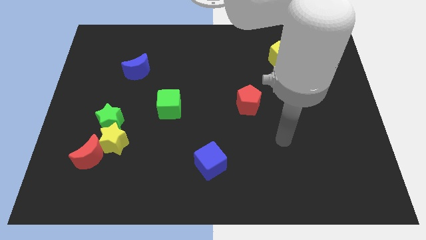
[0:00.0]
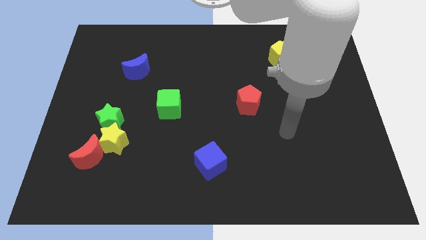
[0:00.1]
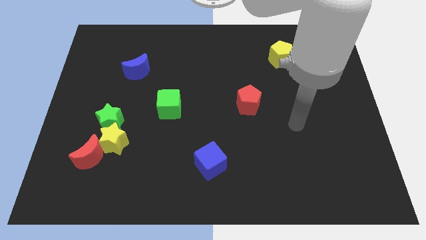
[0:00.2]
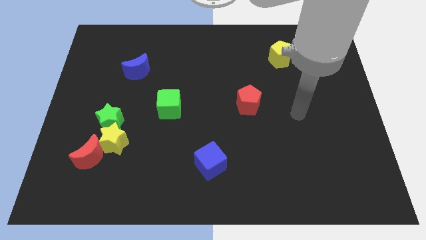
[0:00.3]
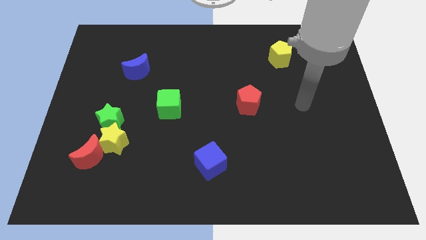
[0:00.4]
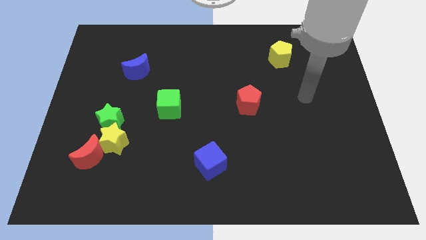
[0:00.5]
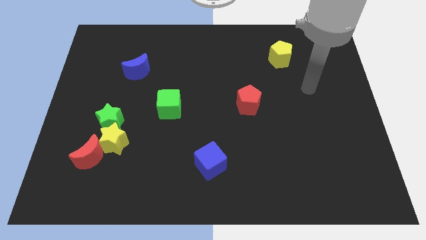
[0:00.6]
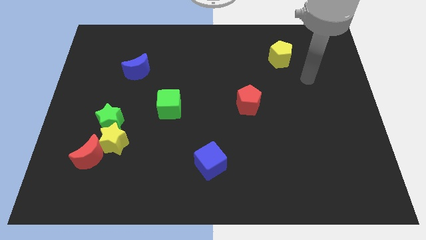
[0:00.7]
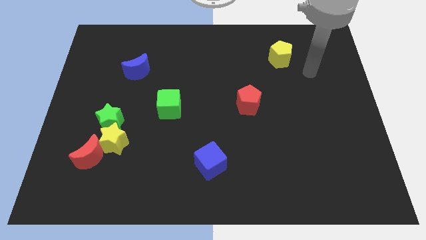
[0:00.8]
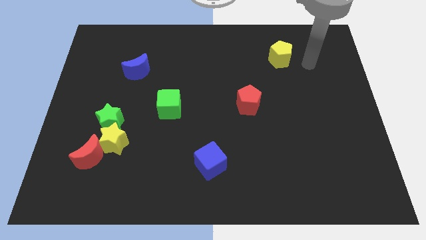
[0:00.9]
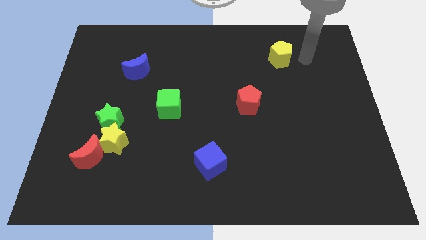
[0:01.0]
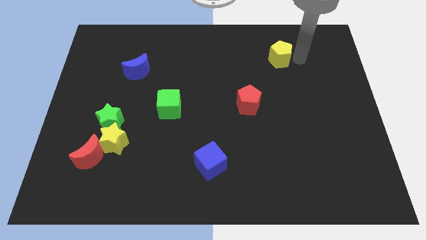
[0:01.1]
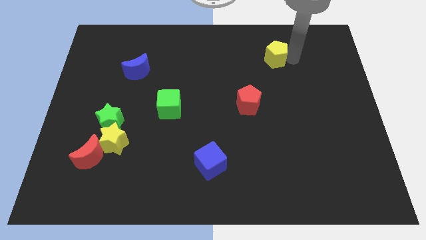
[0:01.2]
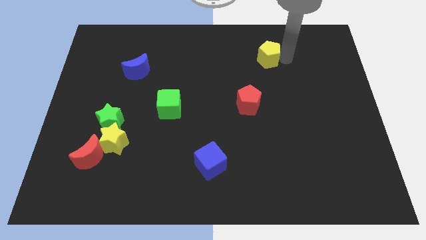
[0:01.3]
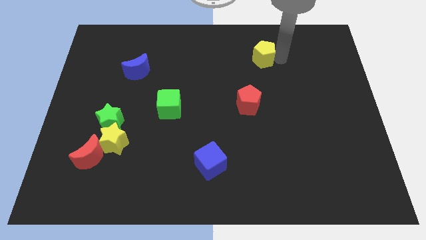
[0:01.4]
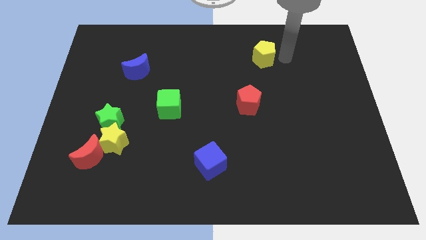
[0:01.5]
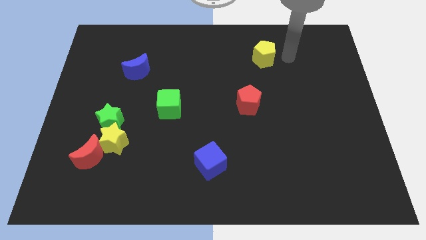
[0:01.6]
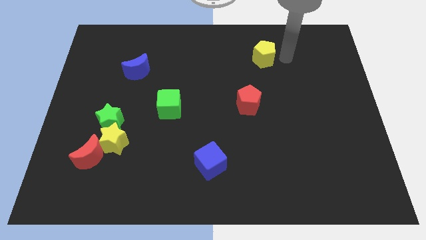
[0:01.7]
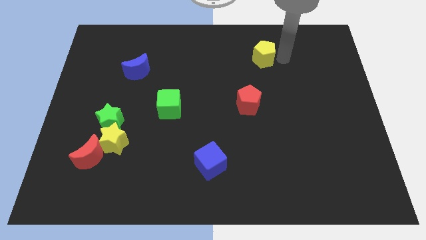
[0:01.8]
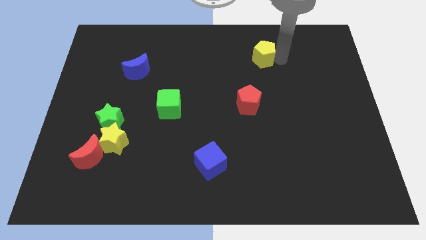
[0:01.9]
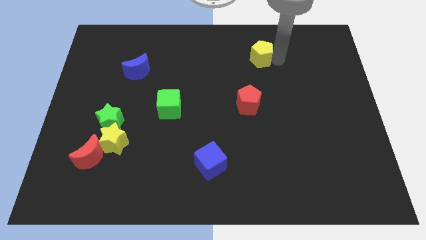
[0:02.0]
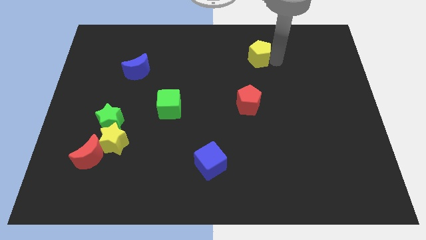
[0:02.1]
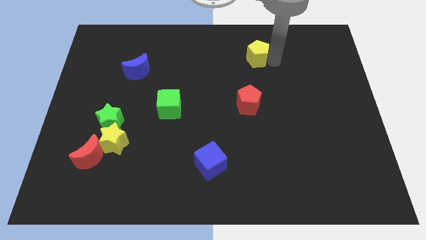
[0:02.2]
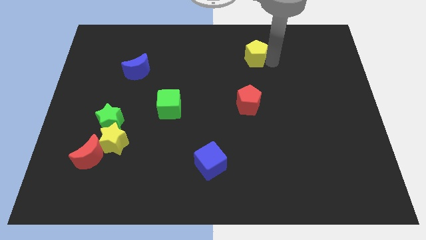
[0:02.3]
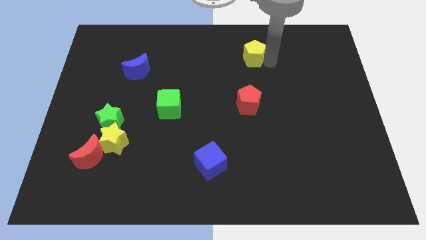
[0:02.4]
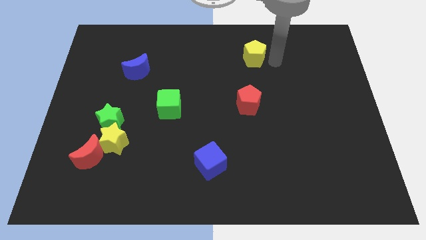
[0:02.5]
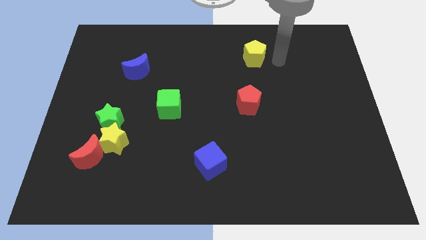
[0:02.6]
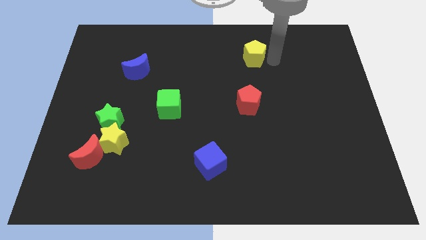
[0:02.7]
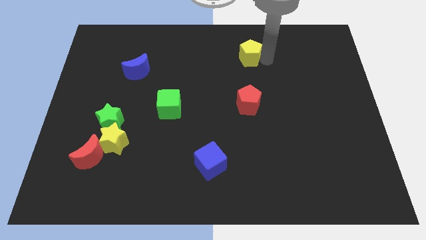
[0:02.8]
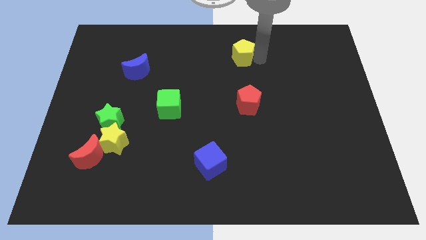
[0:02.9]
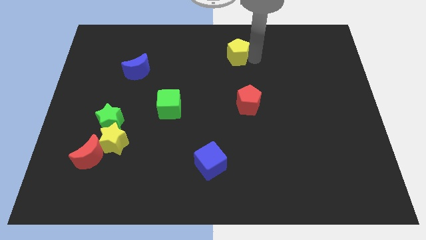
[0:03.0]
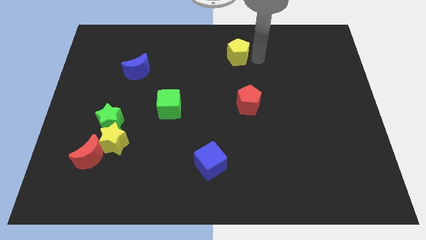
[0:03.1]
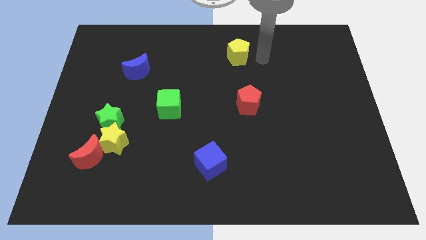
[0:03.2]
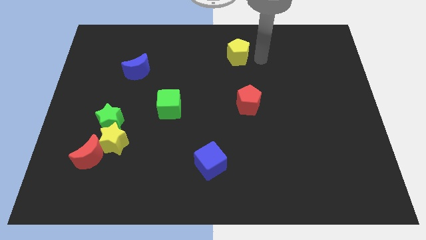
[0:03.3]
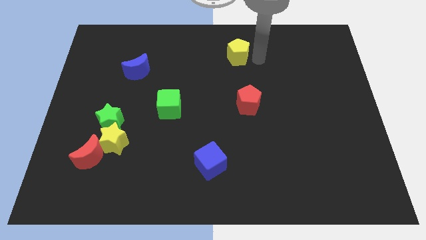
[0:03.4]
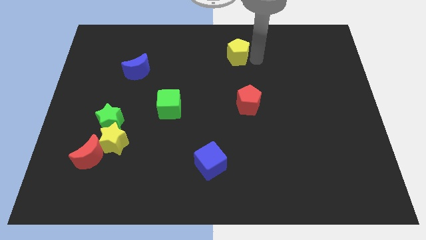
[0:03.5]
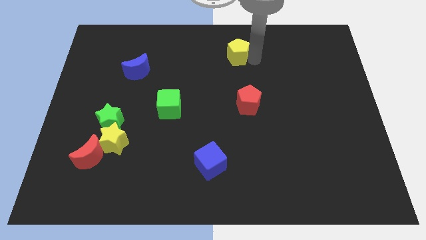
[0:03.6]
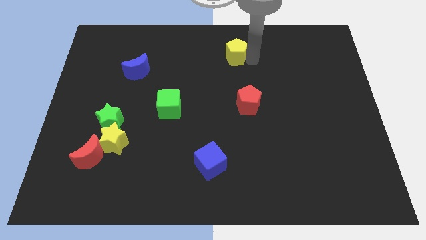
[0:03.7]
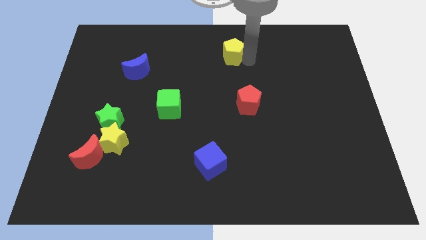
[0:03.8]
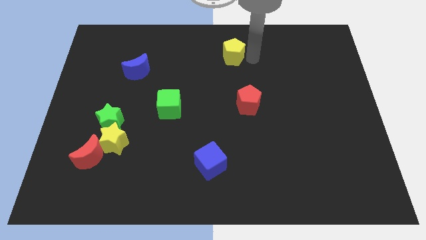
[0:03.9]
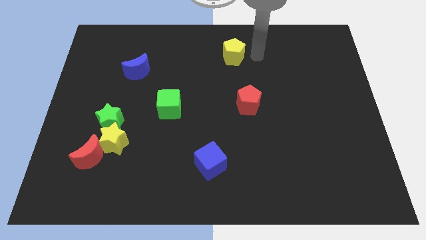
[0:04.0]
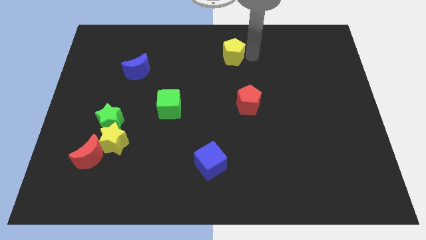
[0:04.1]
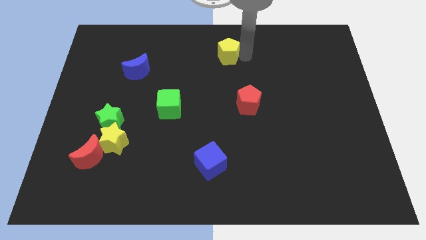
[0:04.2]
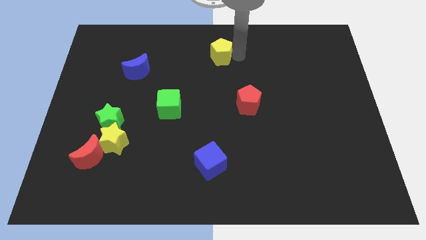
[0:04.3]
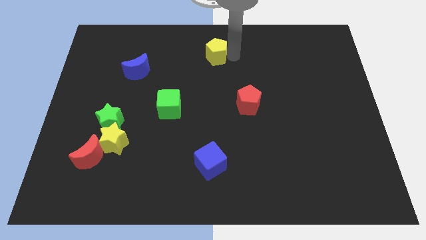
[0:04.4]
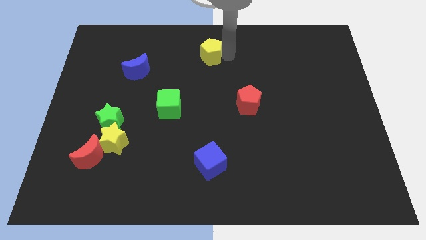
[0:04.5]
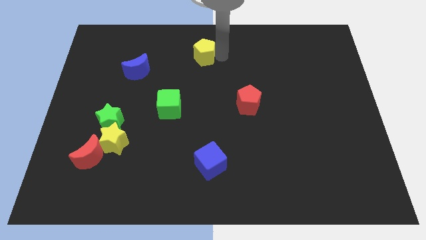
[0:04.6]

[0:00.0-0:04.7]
push the yellow pentagon left

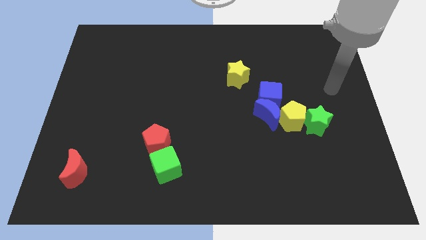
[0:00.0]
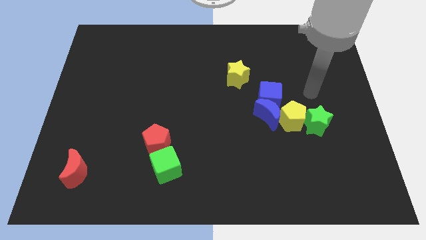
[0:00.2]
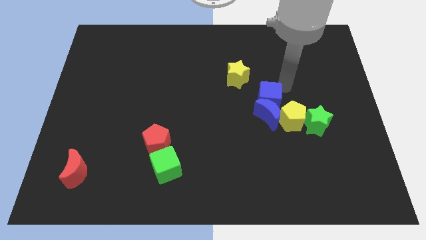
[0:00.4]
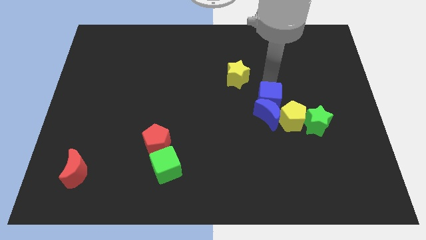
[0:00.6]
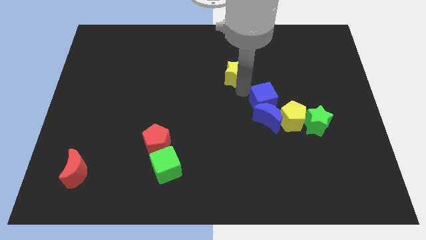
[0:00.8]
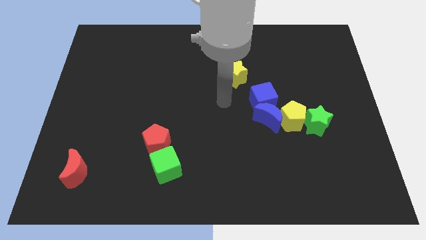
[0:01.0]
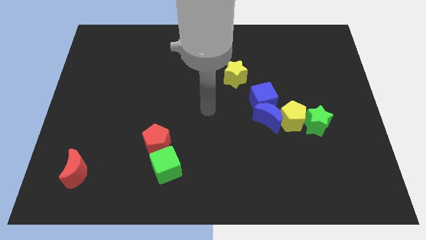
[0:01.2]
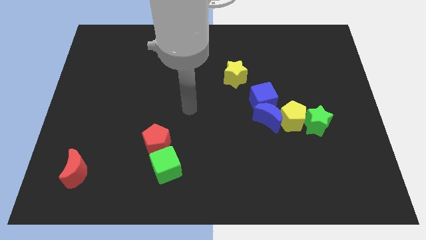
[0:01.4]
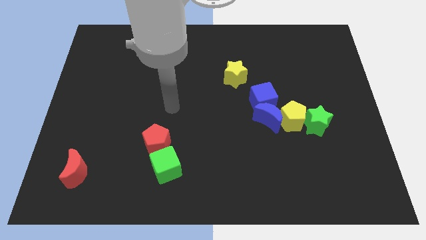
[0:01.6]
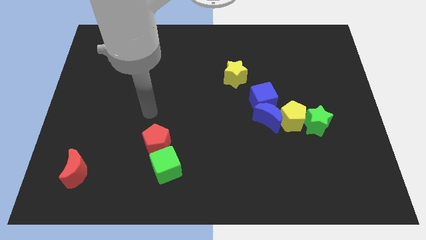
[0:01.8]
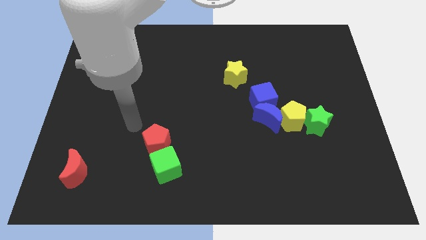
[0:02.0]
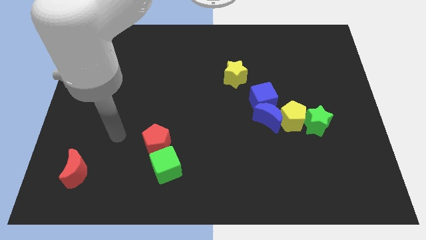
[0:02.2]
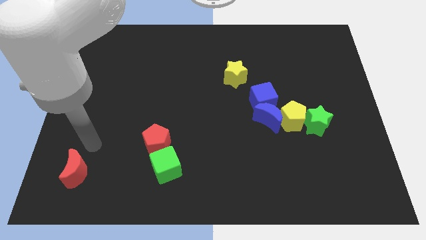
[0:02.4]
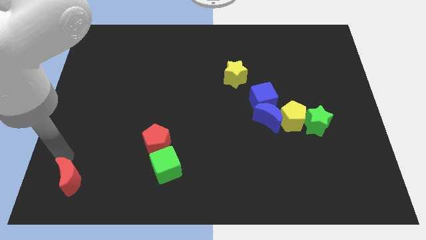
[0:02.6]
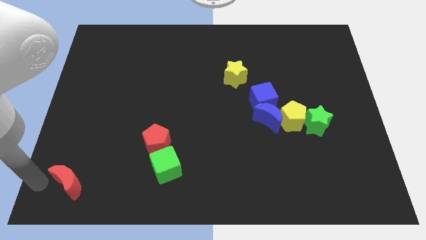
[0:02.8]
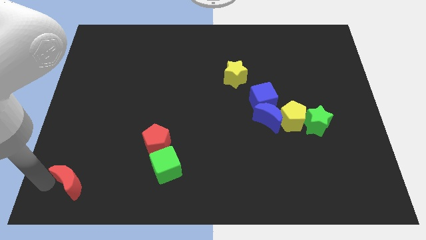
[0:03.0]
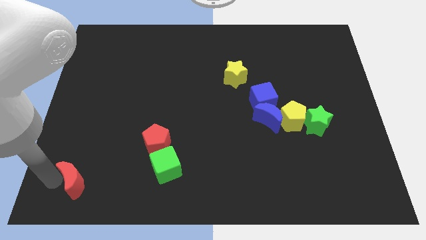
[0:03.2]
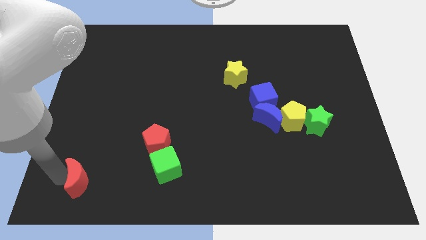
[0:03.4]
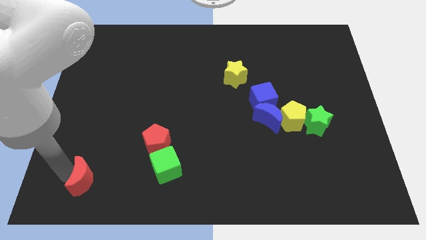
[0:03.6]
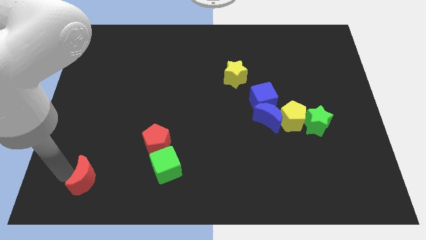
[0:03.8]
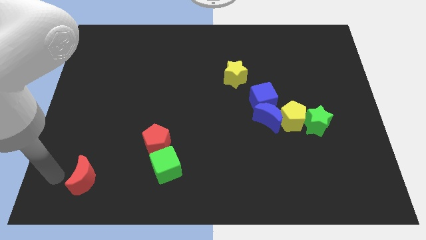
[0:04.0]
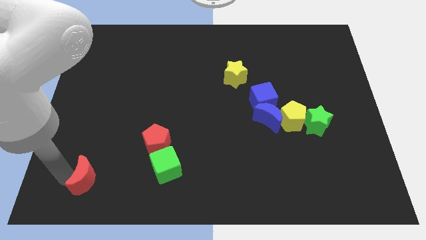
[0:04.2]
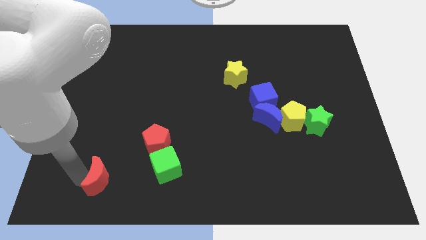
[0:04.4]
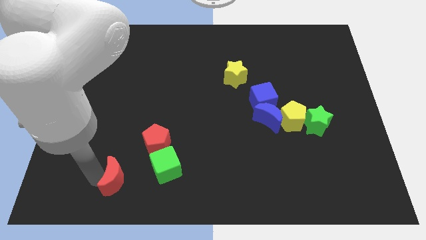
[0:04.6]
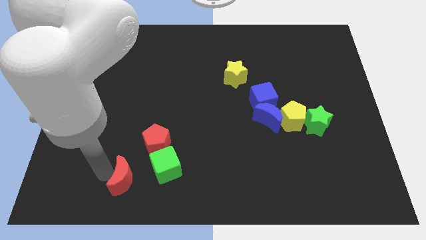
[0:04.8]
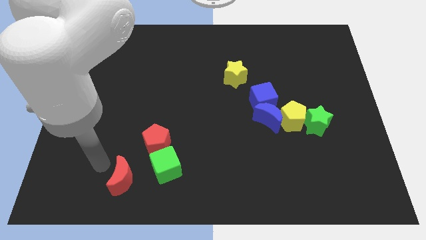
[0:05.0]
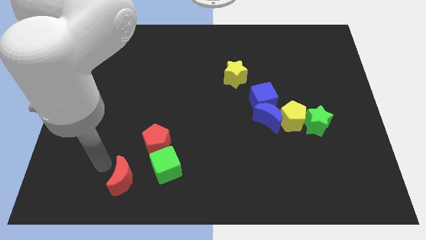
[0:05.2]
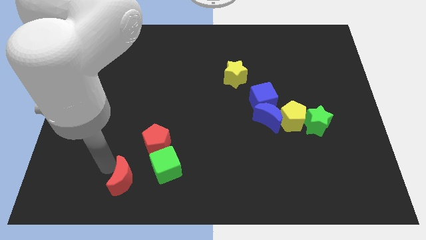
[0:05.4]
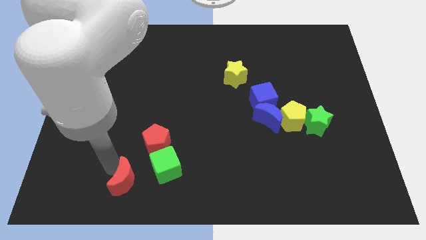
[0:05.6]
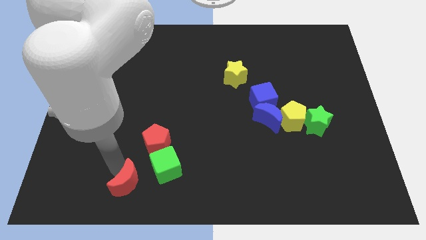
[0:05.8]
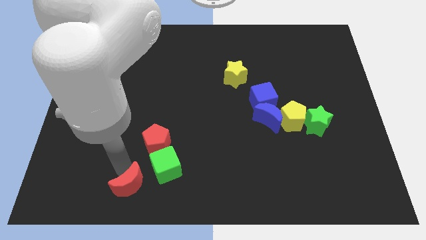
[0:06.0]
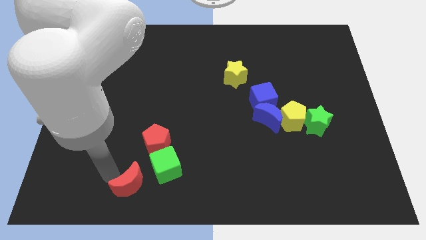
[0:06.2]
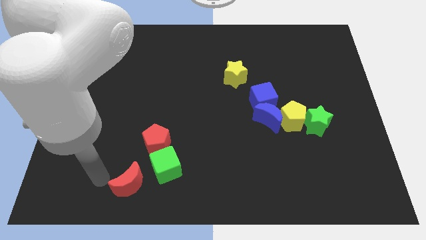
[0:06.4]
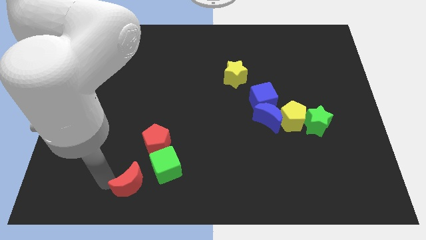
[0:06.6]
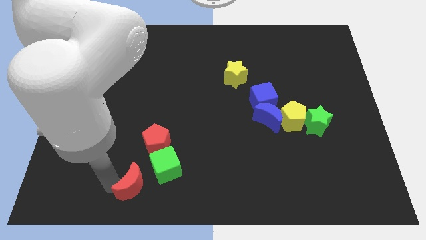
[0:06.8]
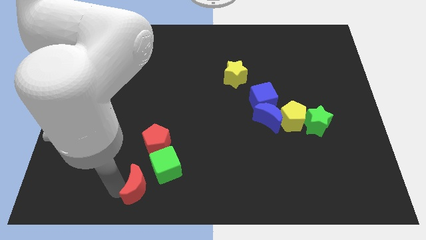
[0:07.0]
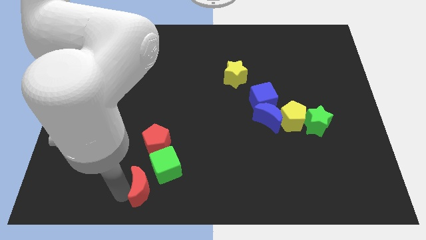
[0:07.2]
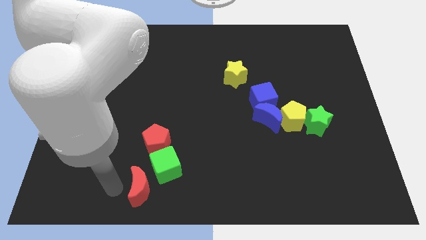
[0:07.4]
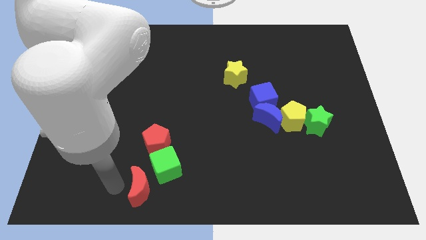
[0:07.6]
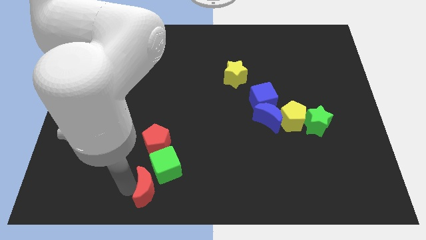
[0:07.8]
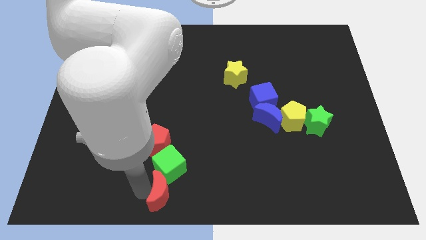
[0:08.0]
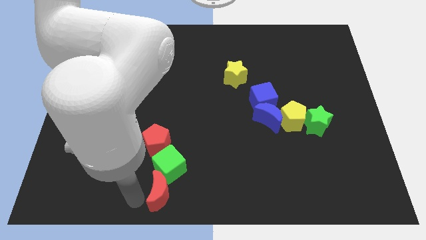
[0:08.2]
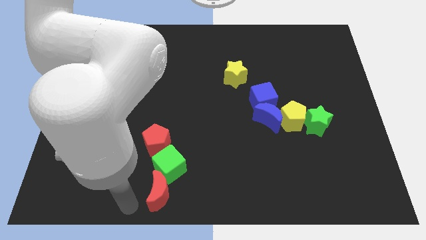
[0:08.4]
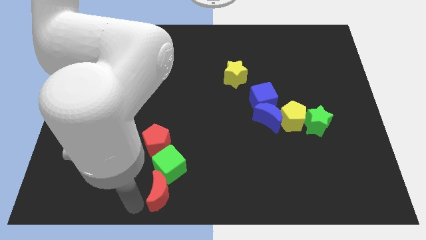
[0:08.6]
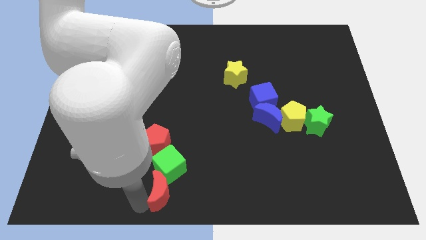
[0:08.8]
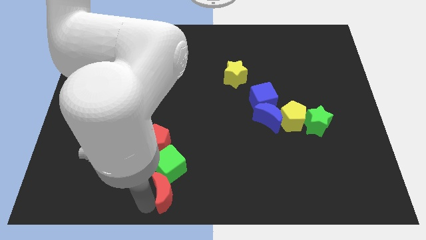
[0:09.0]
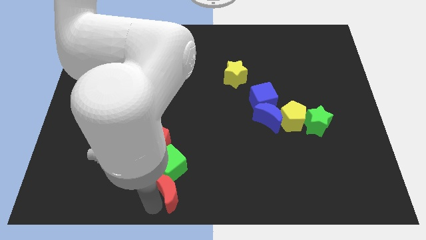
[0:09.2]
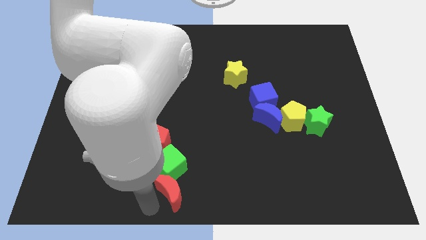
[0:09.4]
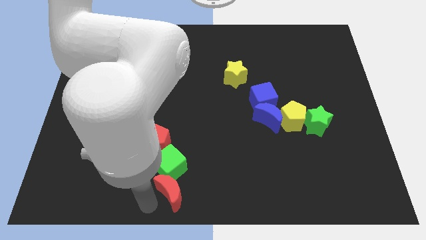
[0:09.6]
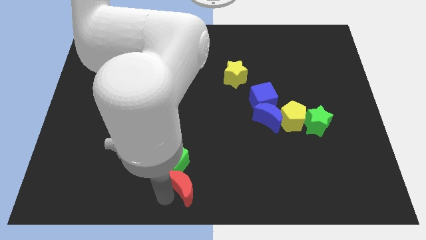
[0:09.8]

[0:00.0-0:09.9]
move the red moon to the right
